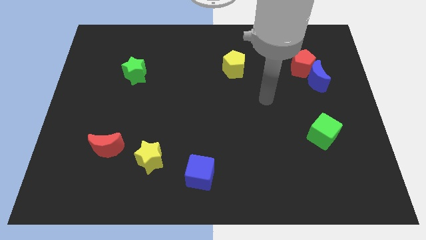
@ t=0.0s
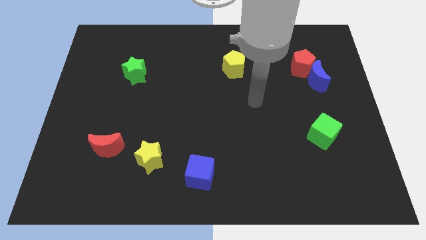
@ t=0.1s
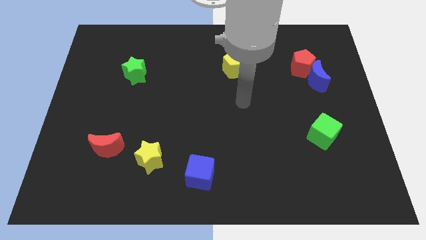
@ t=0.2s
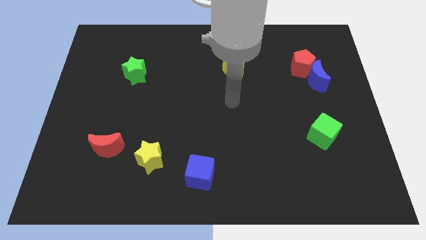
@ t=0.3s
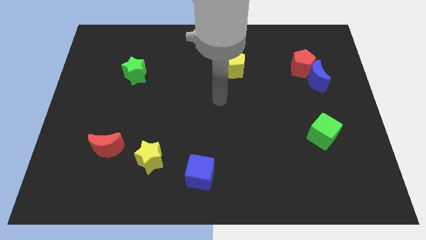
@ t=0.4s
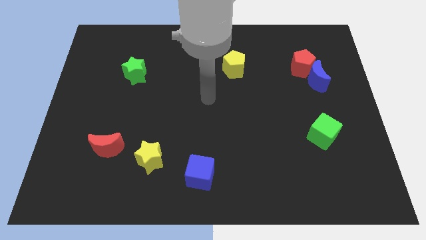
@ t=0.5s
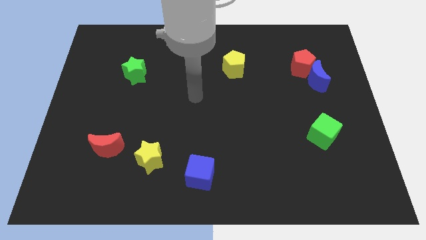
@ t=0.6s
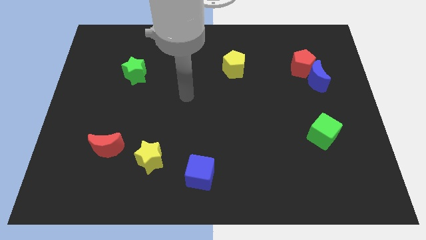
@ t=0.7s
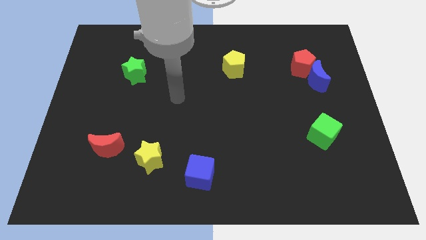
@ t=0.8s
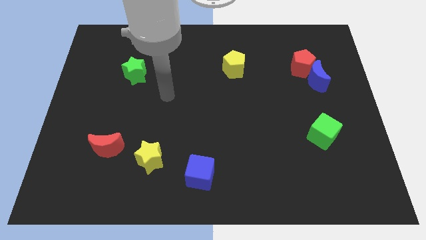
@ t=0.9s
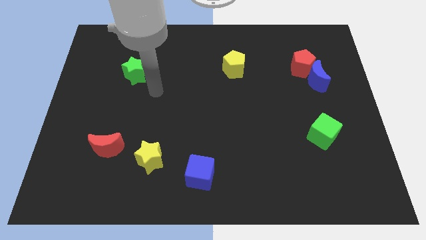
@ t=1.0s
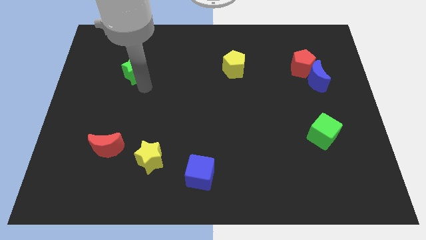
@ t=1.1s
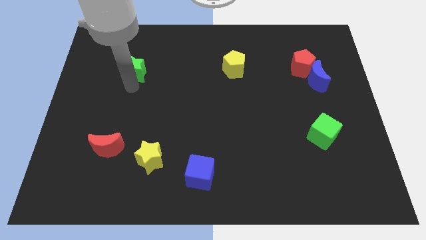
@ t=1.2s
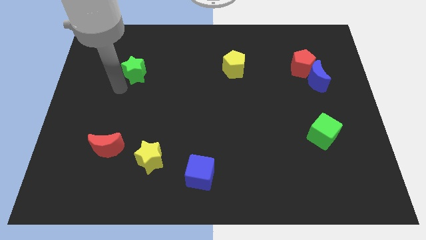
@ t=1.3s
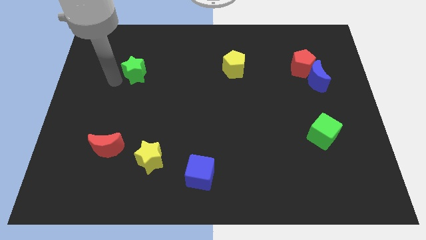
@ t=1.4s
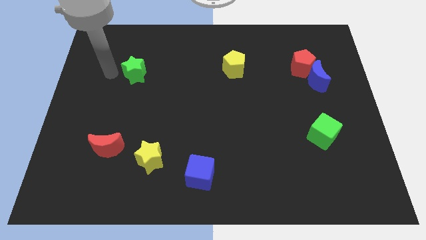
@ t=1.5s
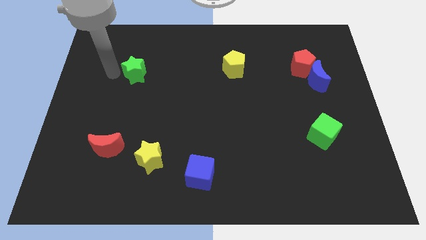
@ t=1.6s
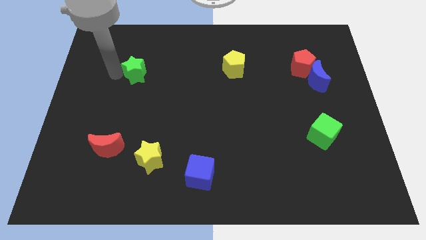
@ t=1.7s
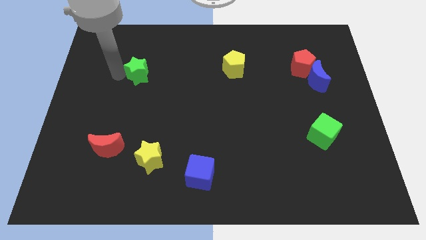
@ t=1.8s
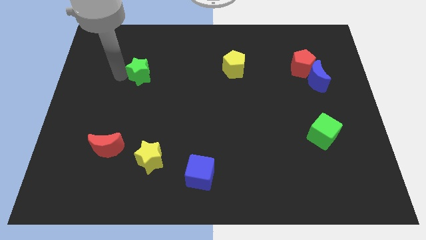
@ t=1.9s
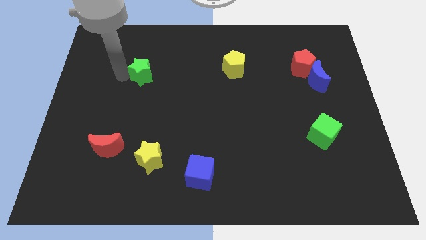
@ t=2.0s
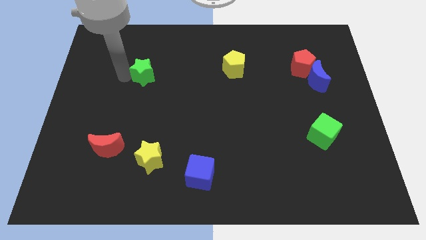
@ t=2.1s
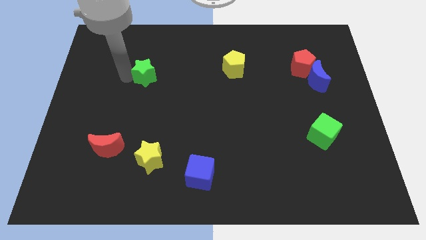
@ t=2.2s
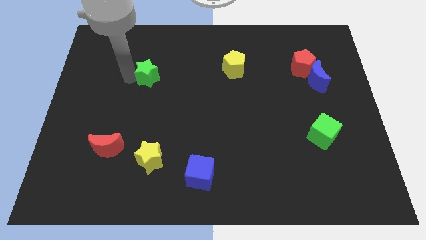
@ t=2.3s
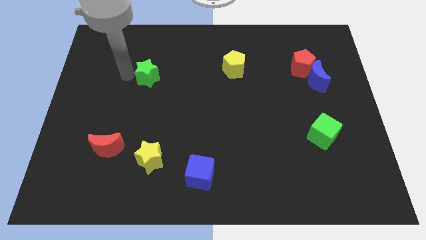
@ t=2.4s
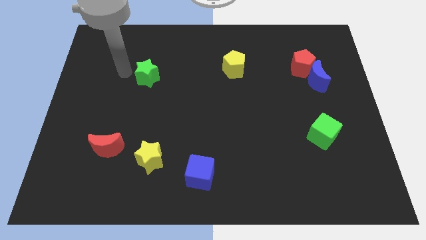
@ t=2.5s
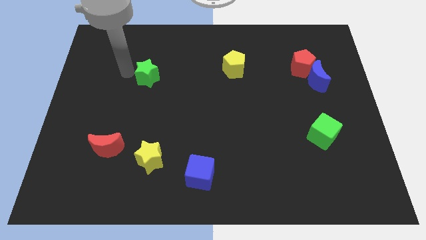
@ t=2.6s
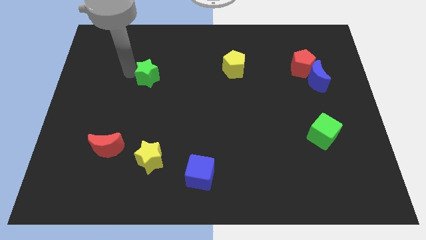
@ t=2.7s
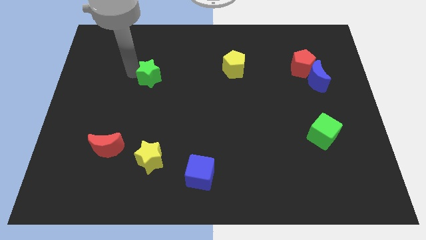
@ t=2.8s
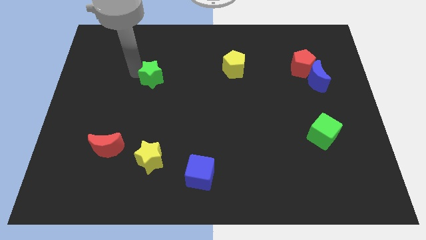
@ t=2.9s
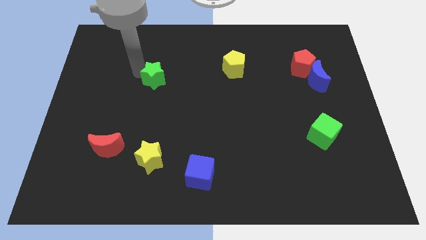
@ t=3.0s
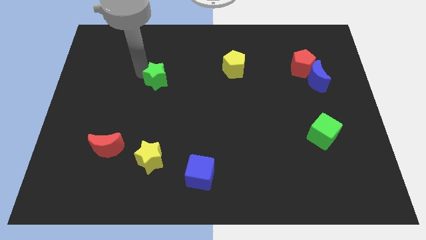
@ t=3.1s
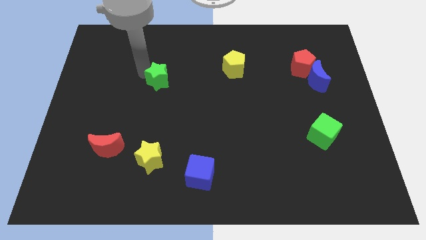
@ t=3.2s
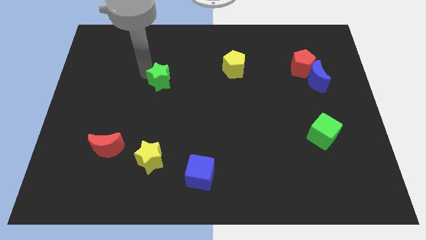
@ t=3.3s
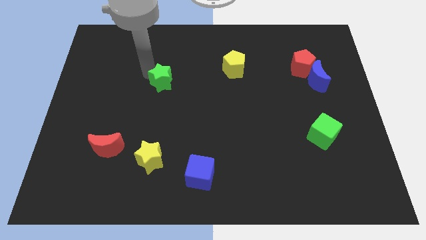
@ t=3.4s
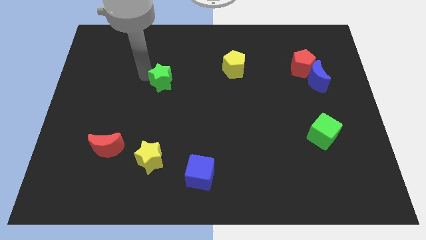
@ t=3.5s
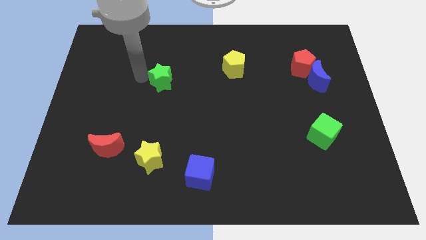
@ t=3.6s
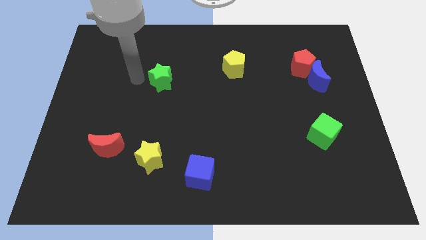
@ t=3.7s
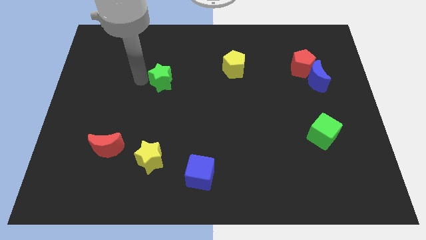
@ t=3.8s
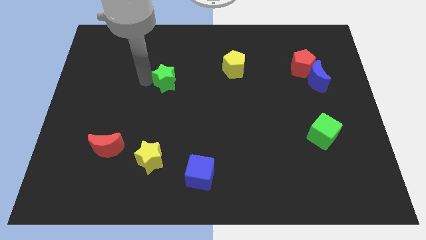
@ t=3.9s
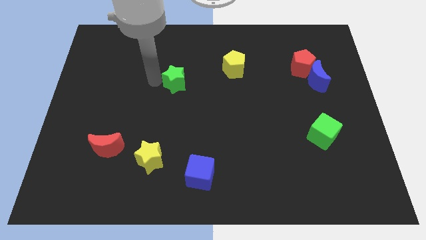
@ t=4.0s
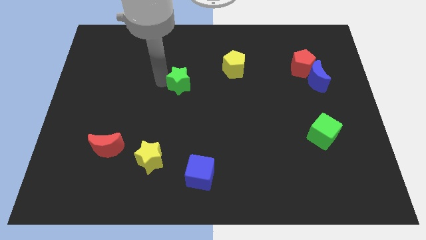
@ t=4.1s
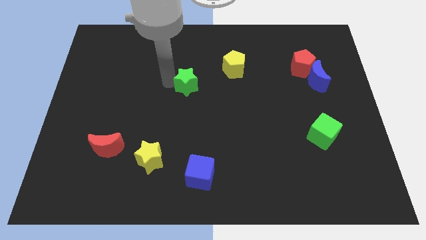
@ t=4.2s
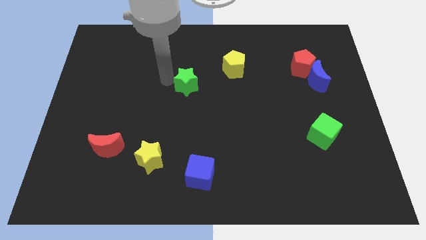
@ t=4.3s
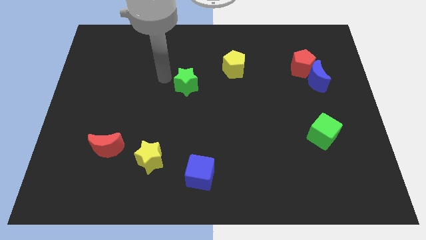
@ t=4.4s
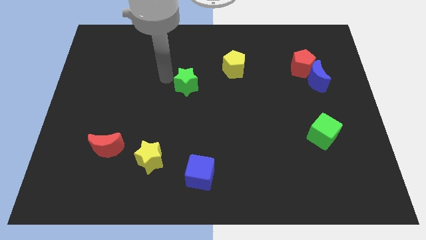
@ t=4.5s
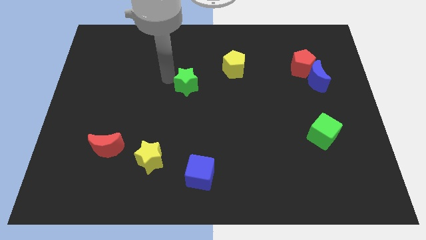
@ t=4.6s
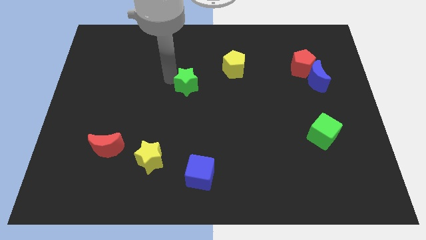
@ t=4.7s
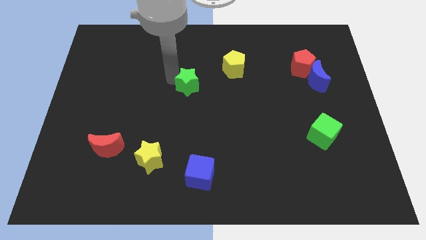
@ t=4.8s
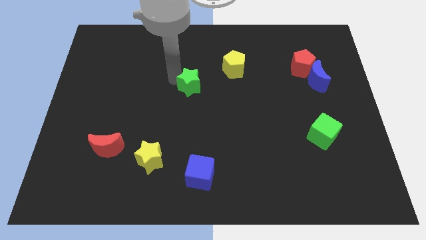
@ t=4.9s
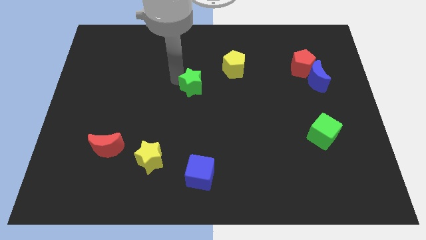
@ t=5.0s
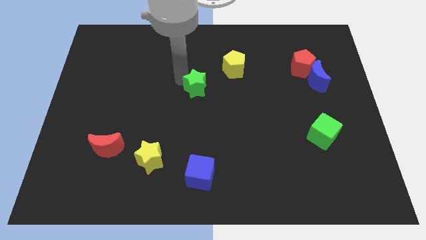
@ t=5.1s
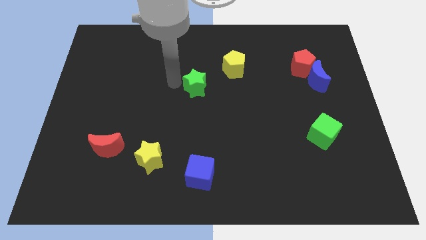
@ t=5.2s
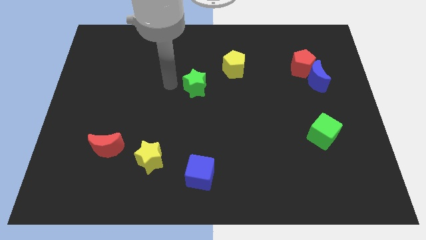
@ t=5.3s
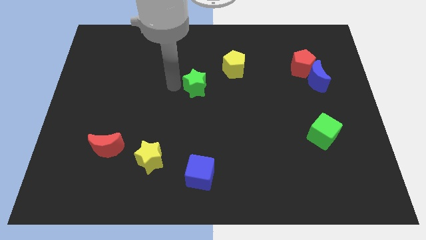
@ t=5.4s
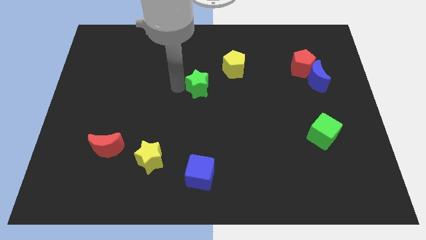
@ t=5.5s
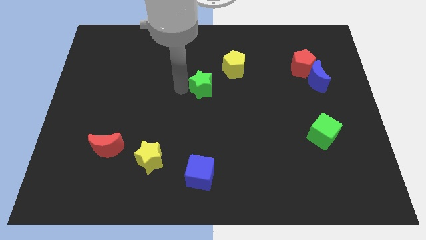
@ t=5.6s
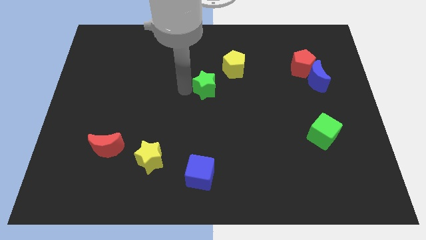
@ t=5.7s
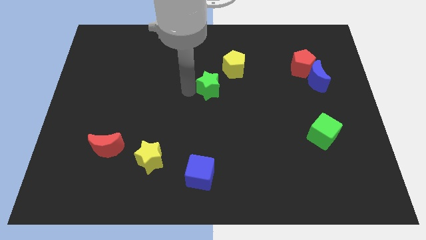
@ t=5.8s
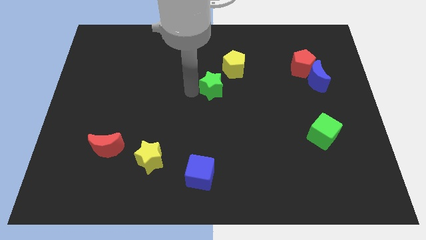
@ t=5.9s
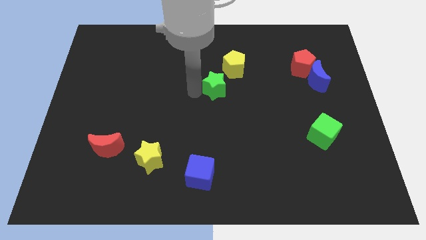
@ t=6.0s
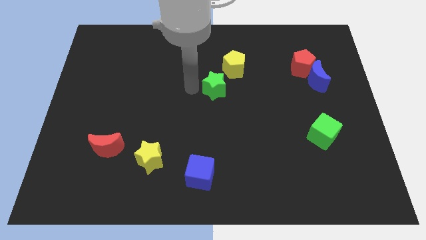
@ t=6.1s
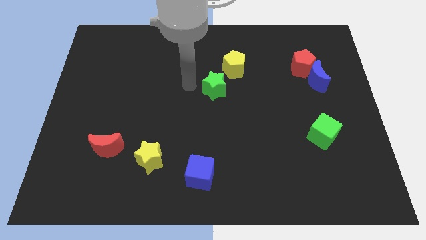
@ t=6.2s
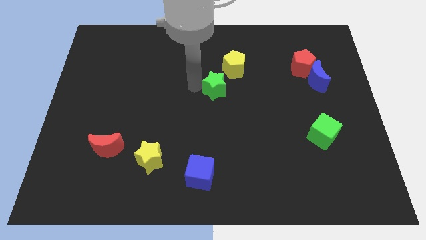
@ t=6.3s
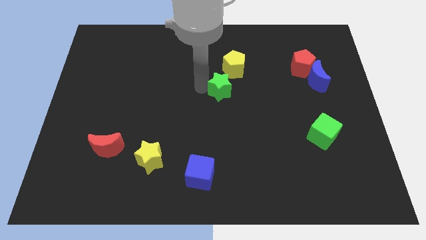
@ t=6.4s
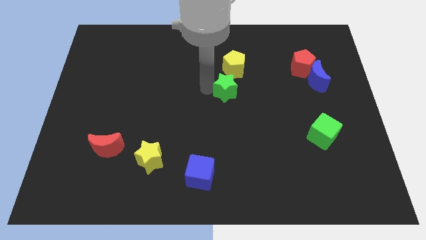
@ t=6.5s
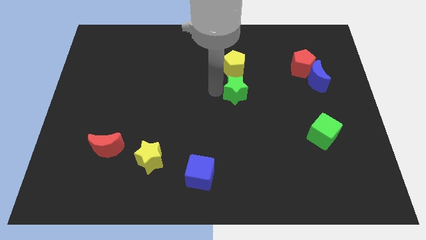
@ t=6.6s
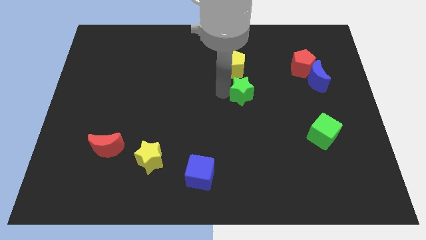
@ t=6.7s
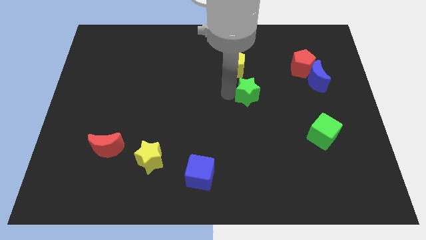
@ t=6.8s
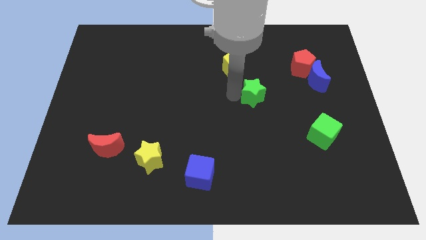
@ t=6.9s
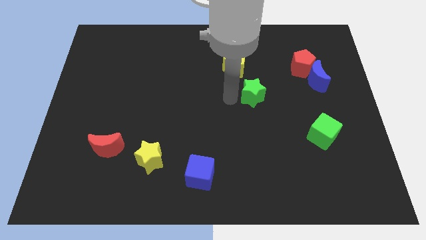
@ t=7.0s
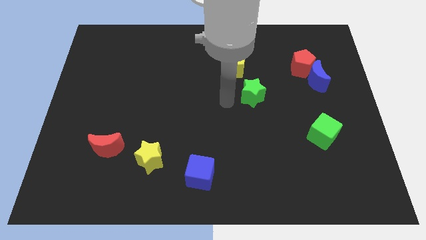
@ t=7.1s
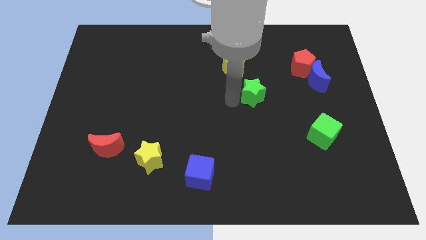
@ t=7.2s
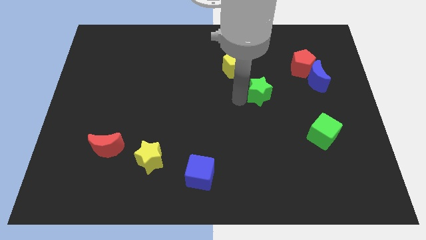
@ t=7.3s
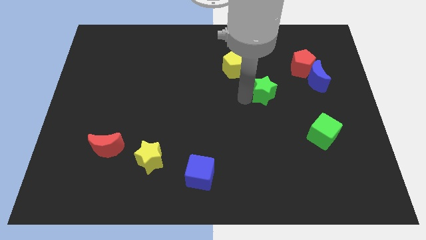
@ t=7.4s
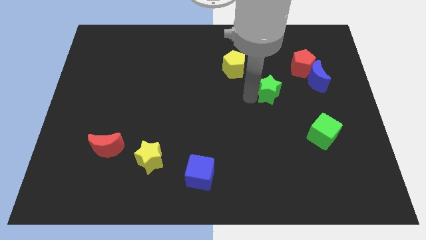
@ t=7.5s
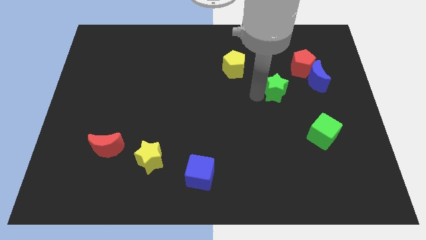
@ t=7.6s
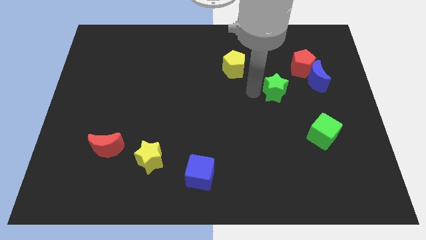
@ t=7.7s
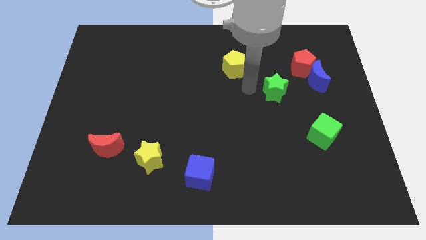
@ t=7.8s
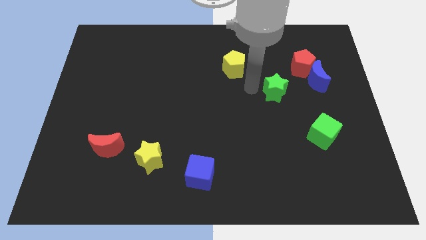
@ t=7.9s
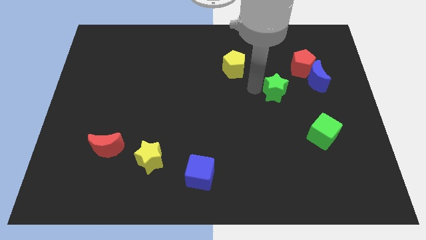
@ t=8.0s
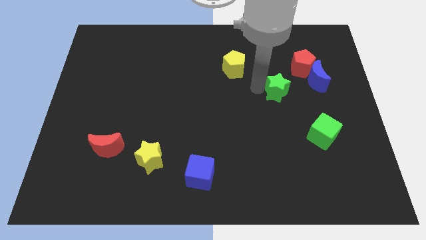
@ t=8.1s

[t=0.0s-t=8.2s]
push the green star diagonally down and to the left of the blue moon
